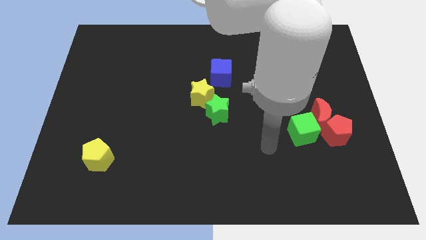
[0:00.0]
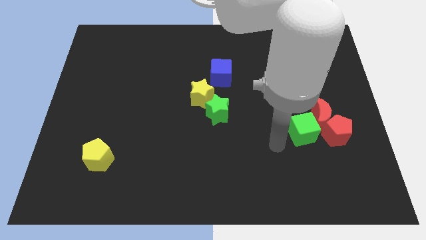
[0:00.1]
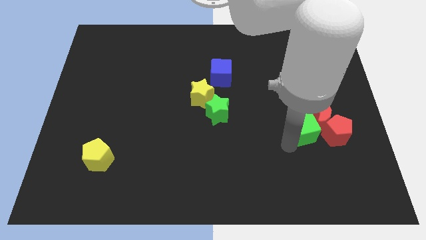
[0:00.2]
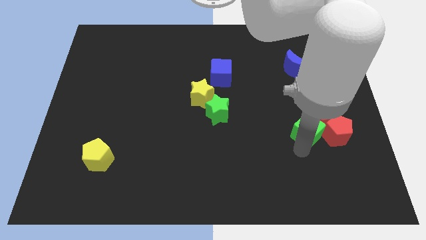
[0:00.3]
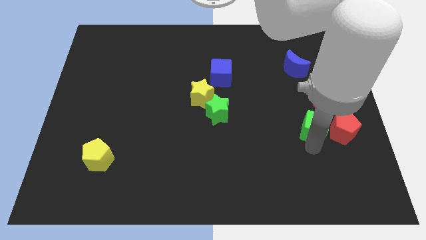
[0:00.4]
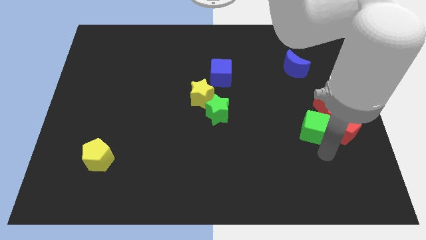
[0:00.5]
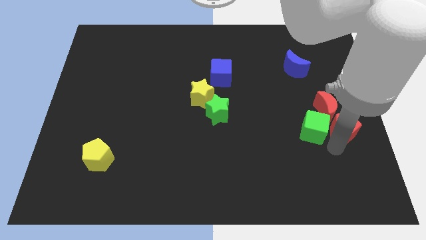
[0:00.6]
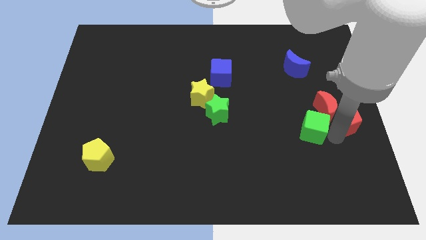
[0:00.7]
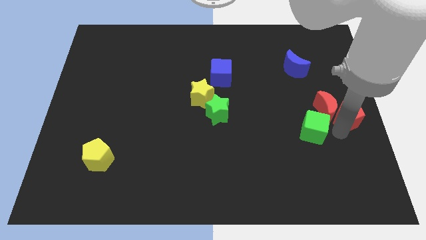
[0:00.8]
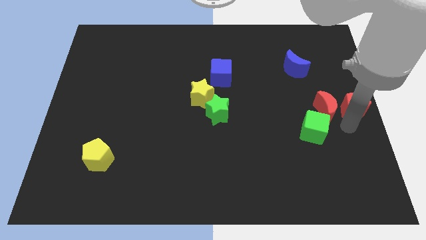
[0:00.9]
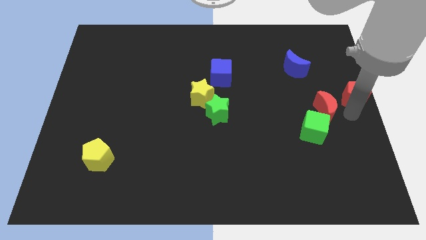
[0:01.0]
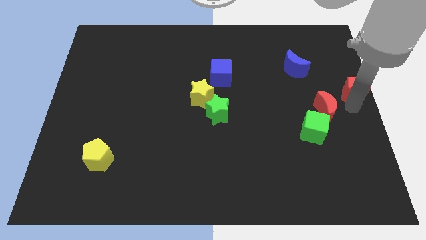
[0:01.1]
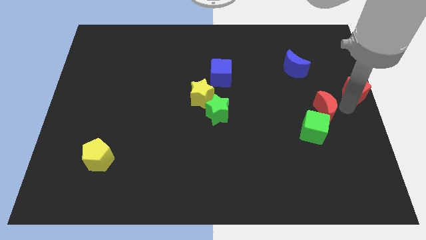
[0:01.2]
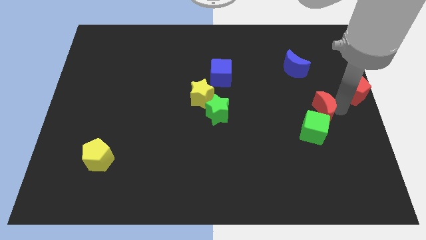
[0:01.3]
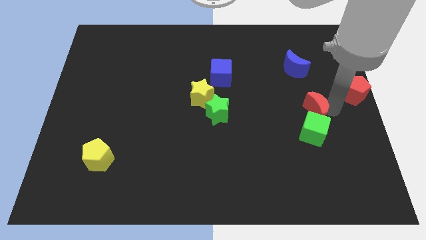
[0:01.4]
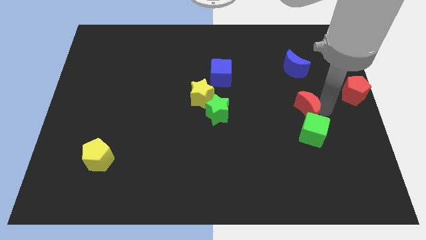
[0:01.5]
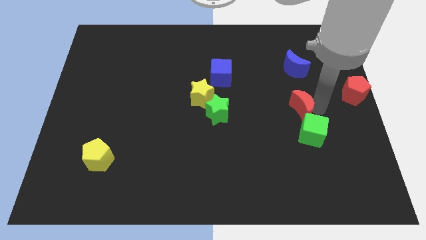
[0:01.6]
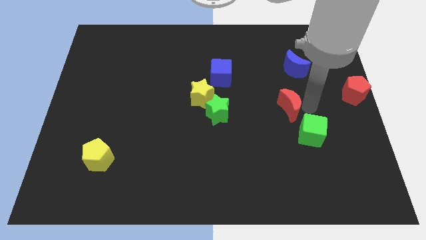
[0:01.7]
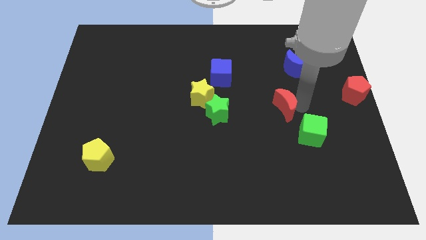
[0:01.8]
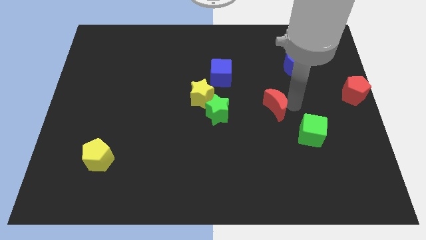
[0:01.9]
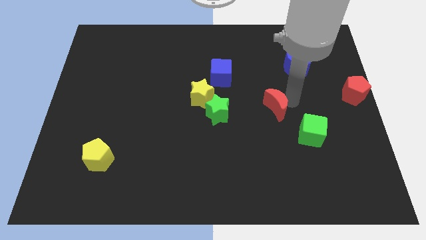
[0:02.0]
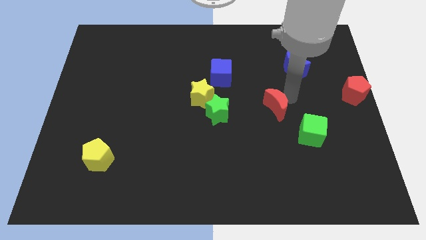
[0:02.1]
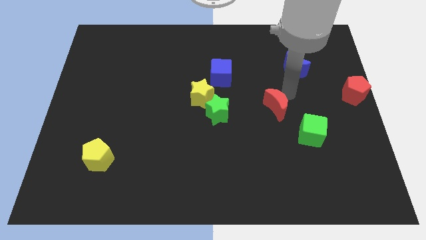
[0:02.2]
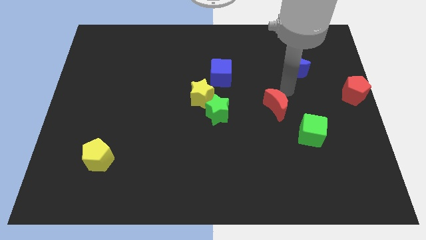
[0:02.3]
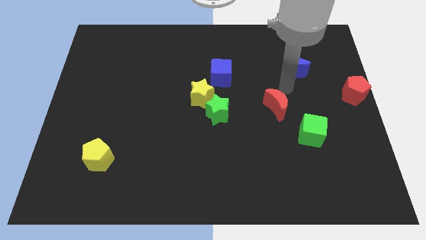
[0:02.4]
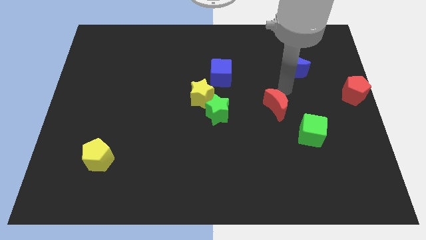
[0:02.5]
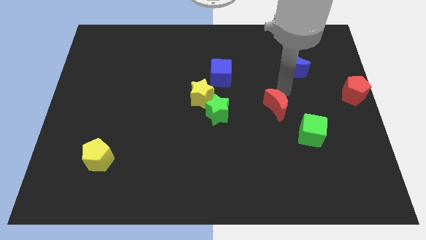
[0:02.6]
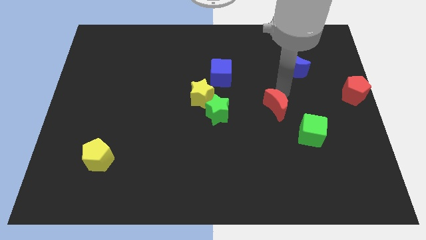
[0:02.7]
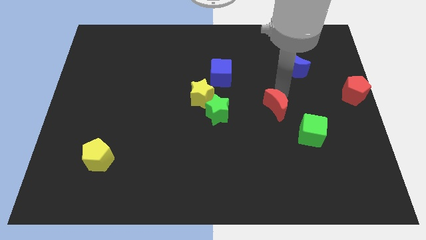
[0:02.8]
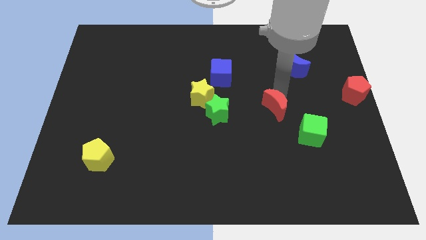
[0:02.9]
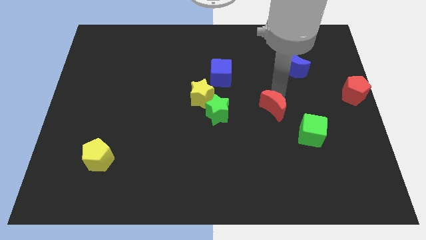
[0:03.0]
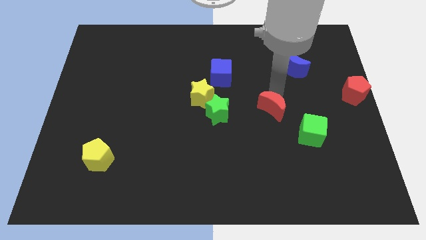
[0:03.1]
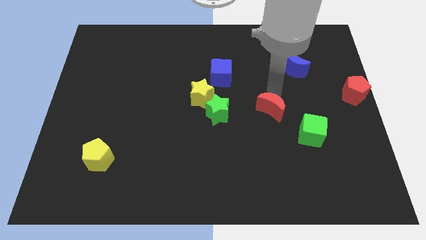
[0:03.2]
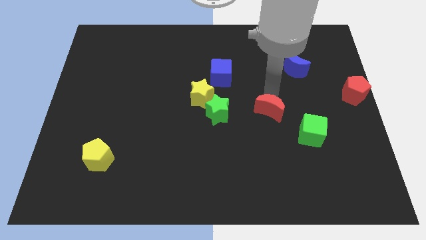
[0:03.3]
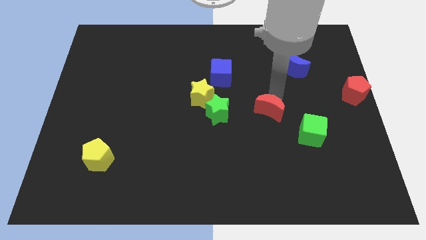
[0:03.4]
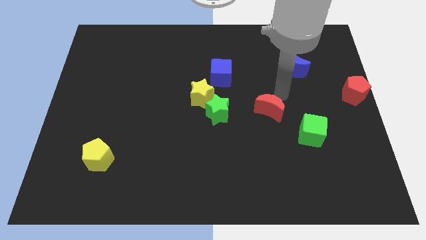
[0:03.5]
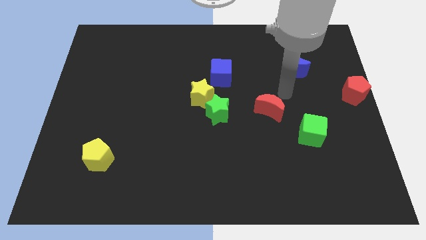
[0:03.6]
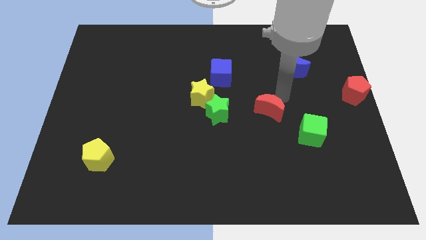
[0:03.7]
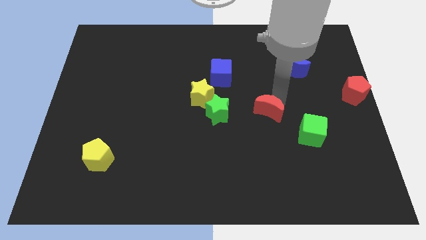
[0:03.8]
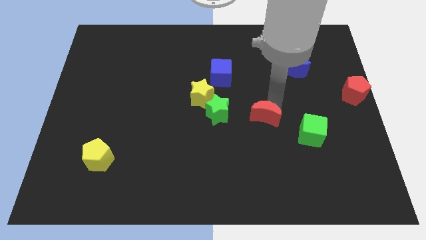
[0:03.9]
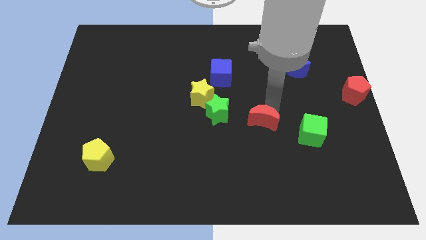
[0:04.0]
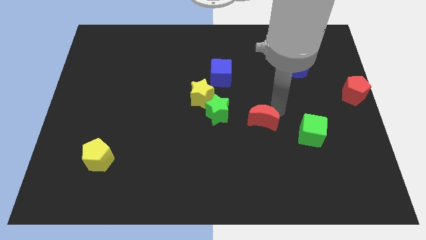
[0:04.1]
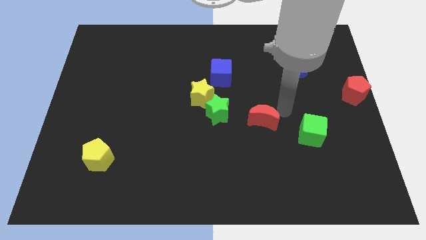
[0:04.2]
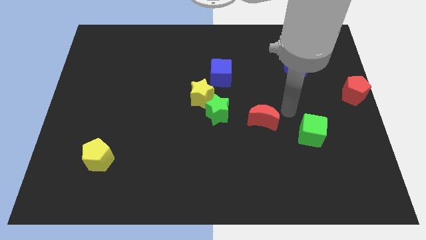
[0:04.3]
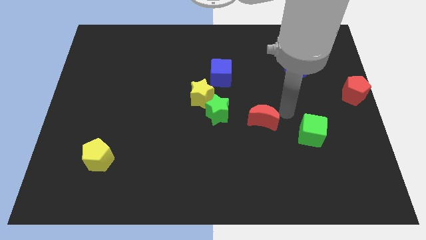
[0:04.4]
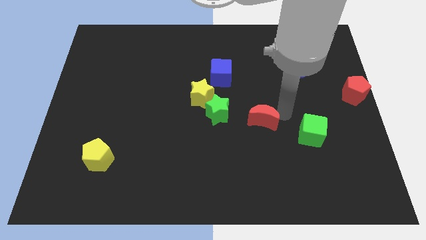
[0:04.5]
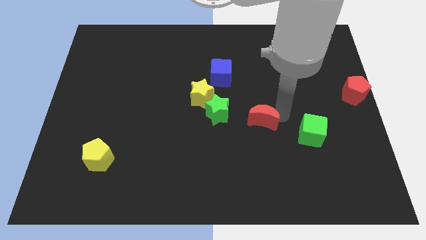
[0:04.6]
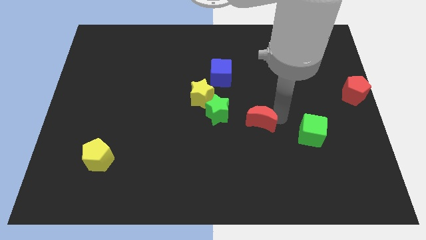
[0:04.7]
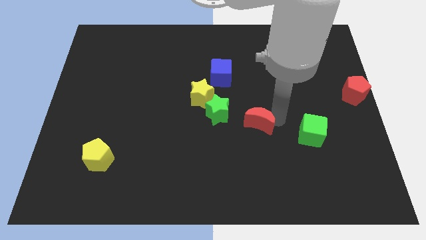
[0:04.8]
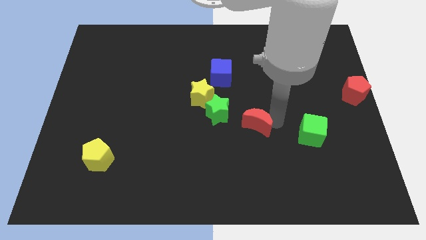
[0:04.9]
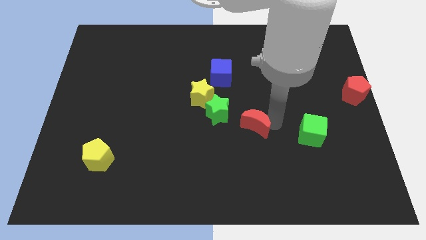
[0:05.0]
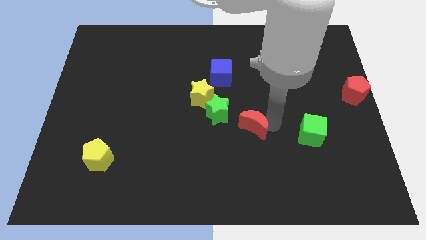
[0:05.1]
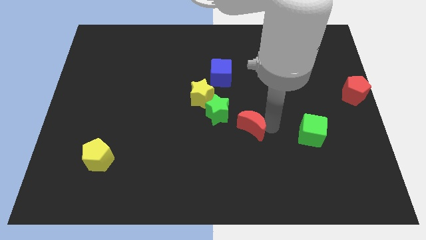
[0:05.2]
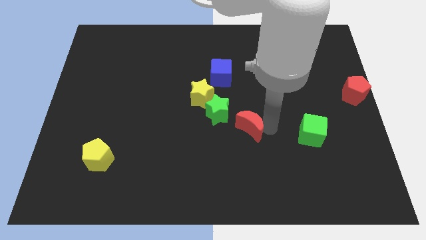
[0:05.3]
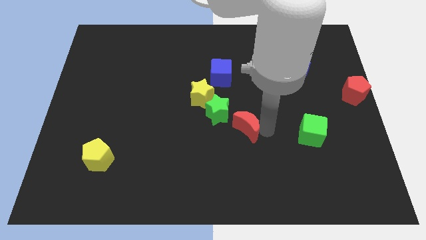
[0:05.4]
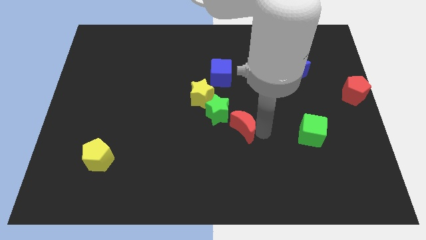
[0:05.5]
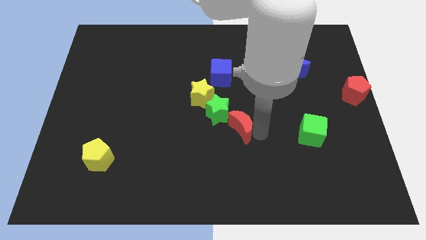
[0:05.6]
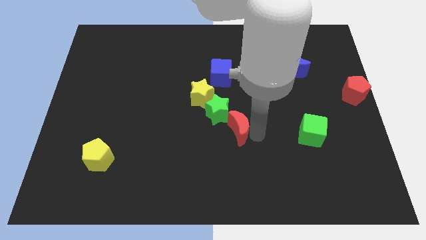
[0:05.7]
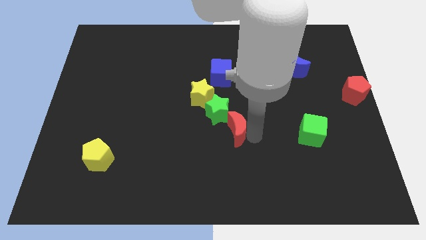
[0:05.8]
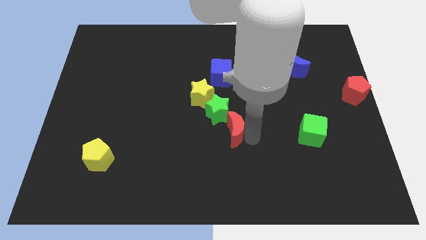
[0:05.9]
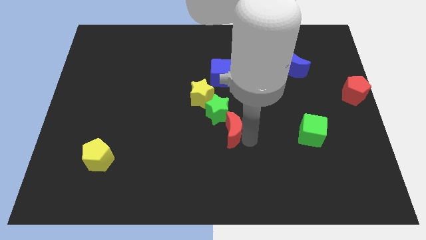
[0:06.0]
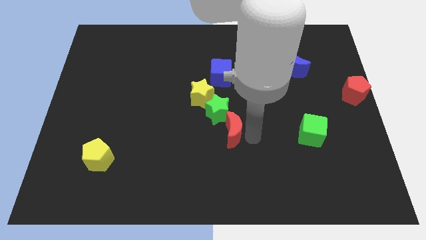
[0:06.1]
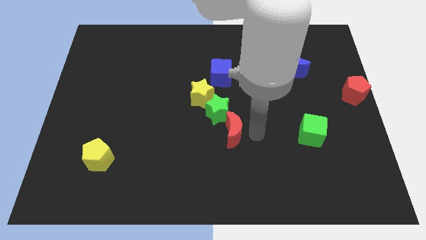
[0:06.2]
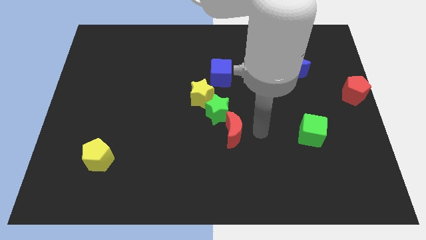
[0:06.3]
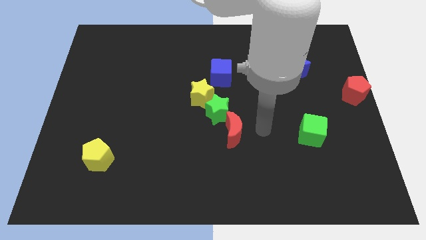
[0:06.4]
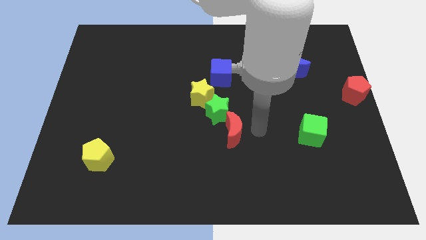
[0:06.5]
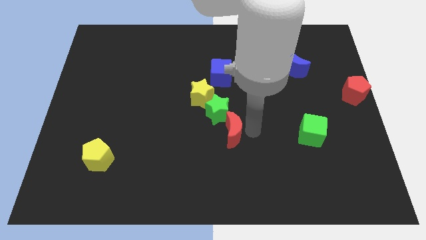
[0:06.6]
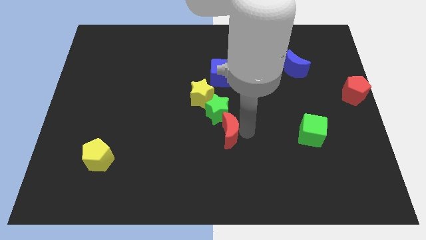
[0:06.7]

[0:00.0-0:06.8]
push the red moon to the left

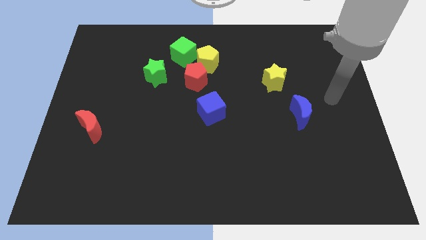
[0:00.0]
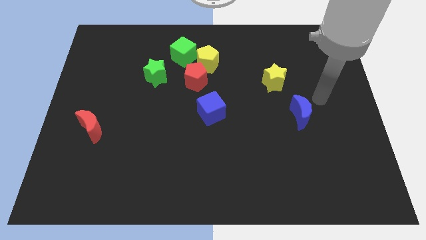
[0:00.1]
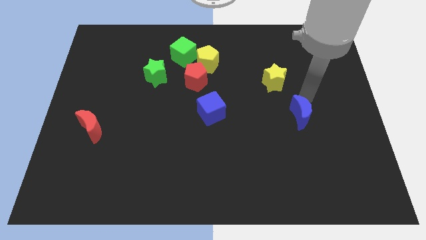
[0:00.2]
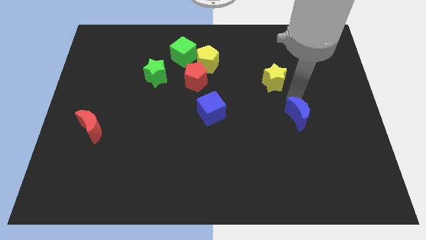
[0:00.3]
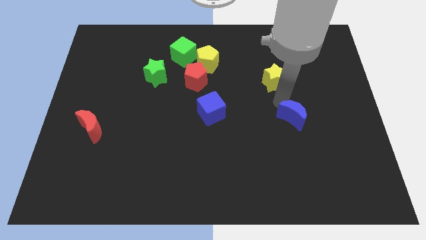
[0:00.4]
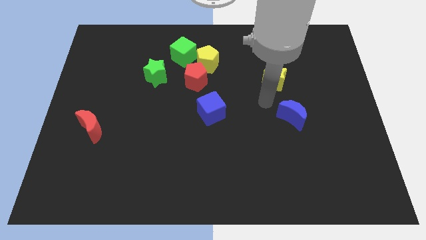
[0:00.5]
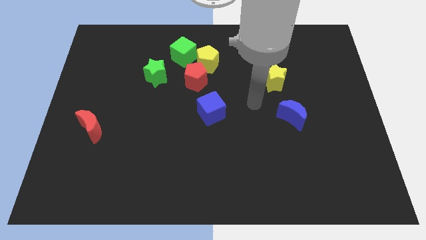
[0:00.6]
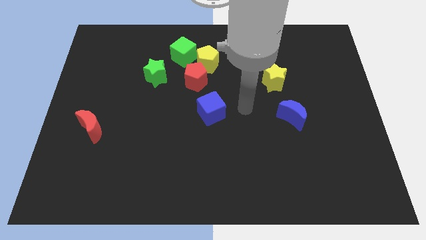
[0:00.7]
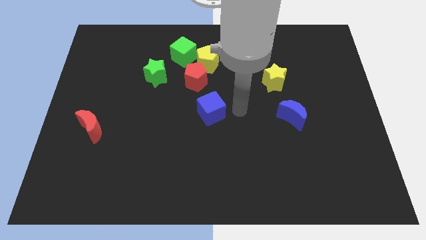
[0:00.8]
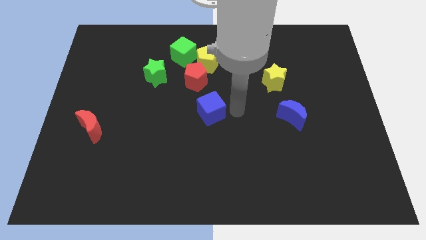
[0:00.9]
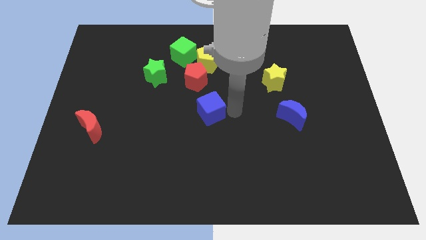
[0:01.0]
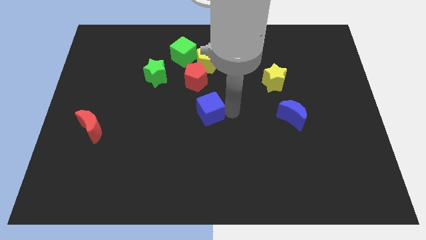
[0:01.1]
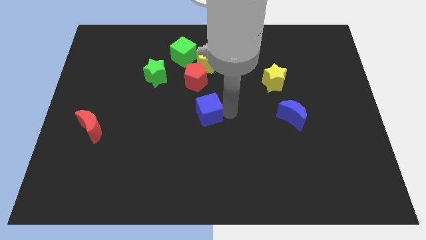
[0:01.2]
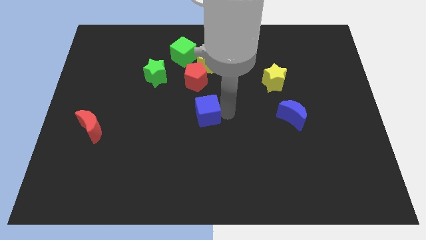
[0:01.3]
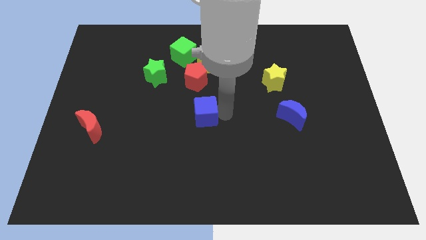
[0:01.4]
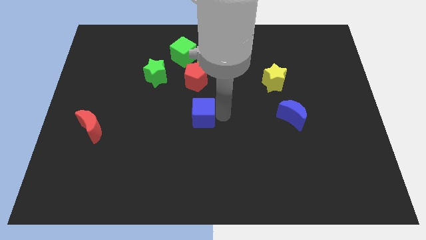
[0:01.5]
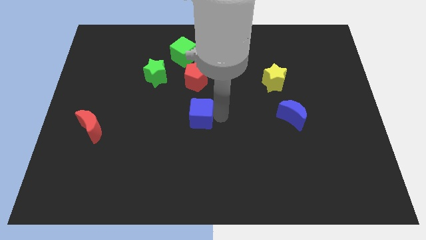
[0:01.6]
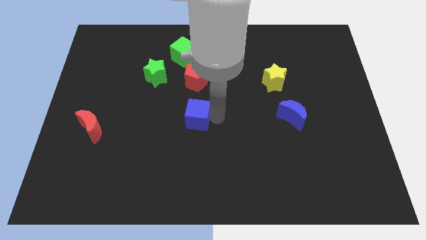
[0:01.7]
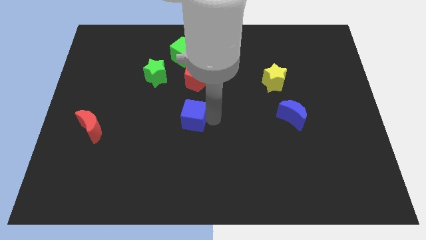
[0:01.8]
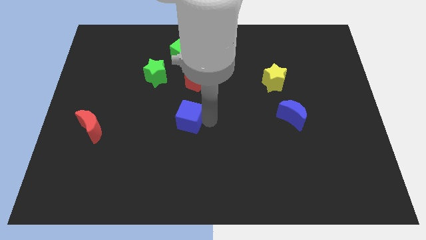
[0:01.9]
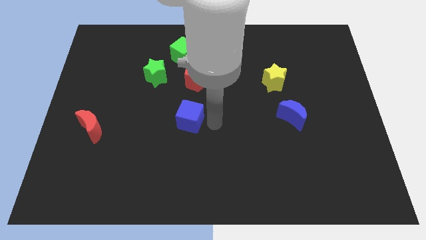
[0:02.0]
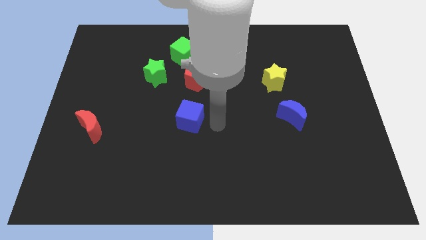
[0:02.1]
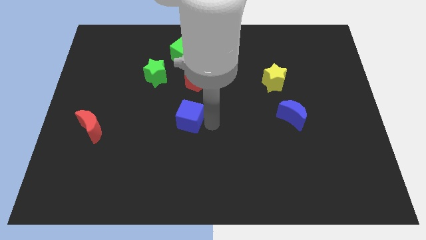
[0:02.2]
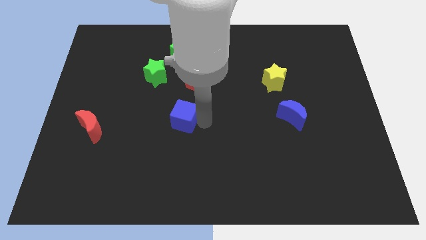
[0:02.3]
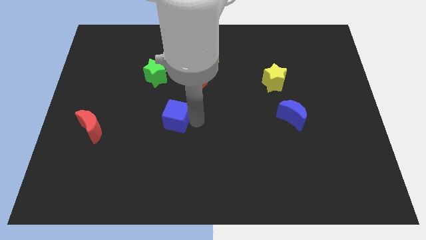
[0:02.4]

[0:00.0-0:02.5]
push the blue cube left a little bit
